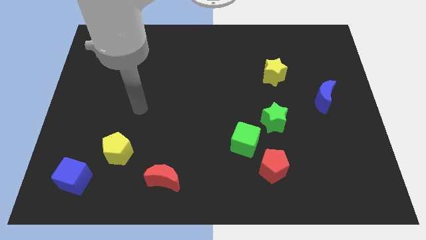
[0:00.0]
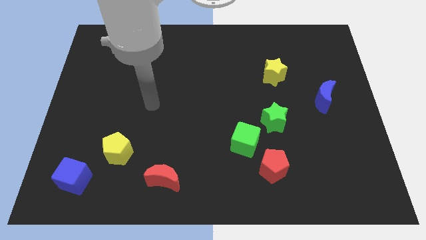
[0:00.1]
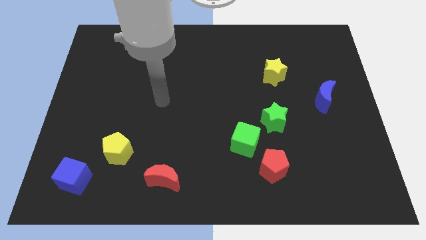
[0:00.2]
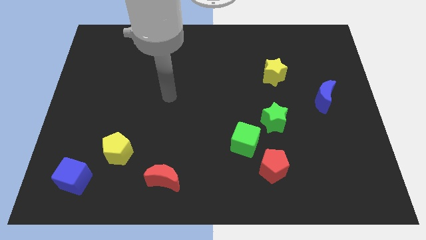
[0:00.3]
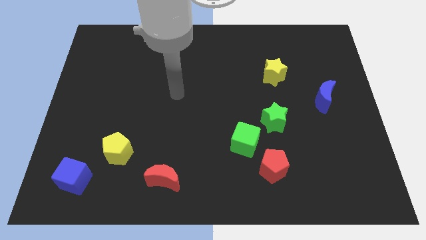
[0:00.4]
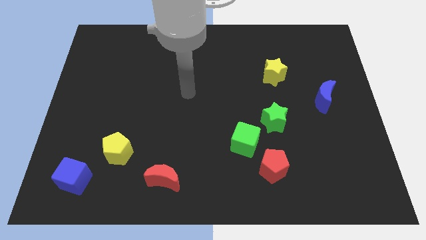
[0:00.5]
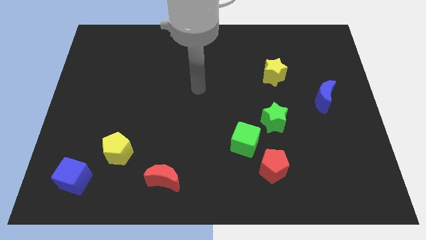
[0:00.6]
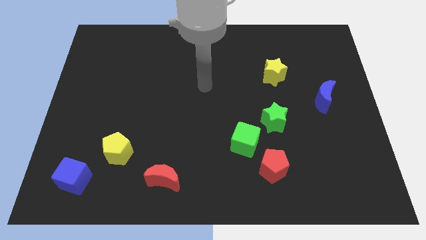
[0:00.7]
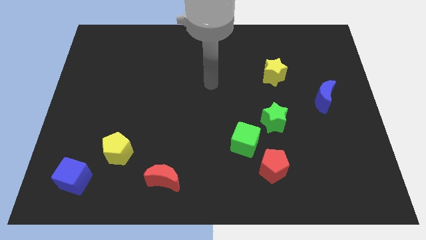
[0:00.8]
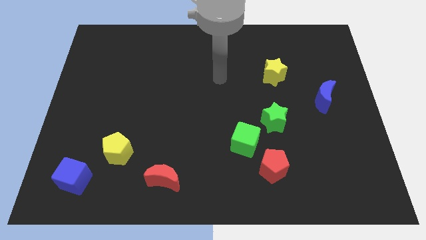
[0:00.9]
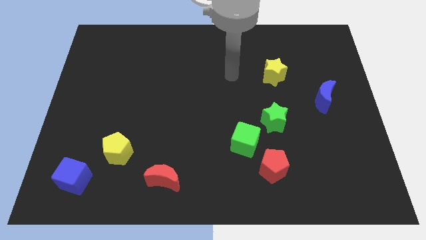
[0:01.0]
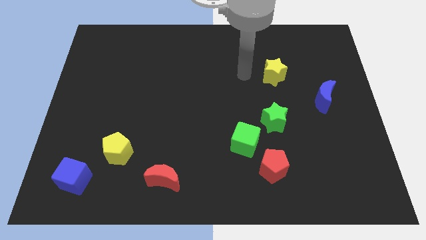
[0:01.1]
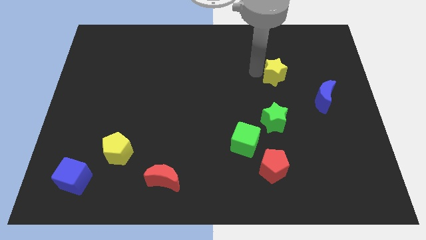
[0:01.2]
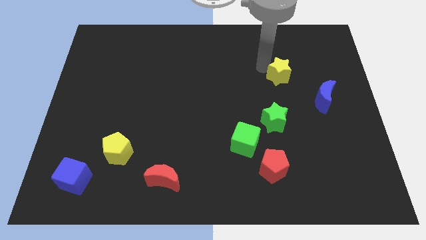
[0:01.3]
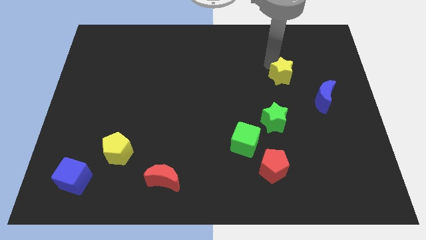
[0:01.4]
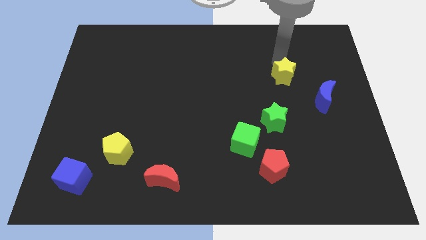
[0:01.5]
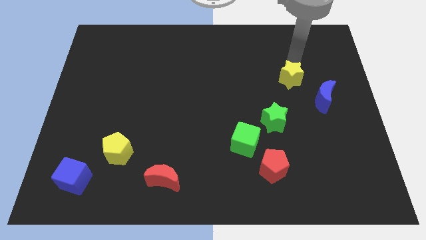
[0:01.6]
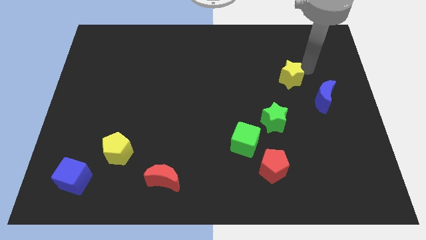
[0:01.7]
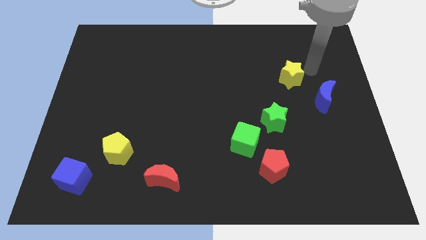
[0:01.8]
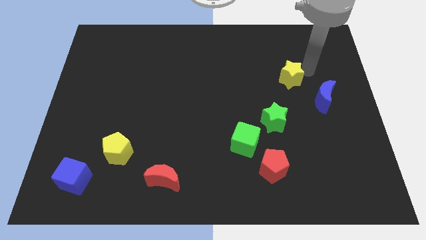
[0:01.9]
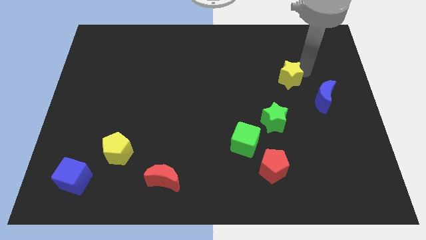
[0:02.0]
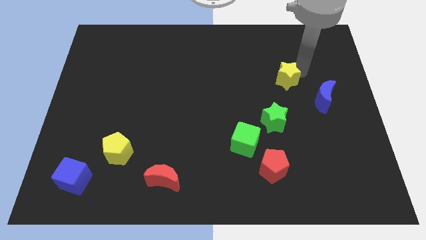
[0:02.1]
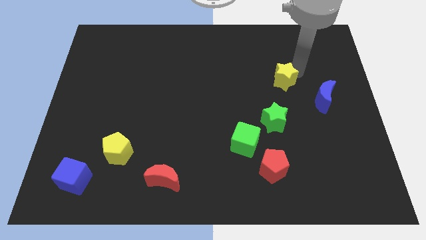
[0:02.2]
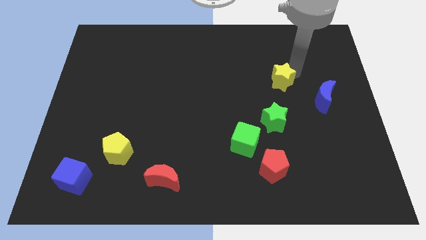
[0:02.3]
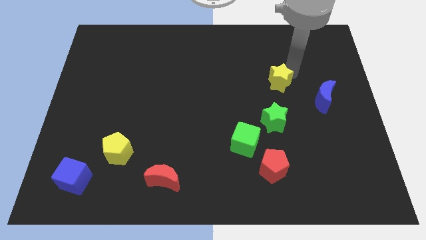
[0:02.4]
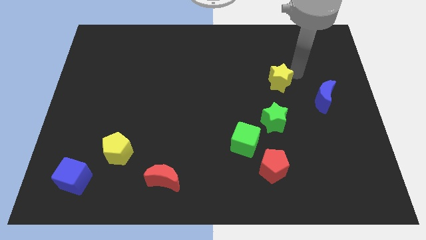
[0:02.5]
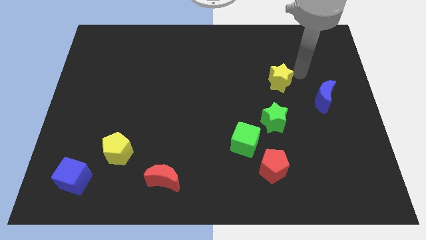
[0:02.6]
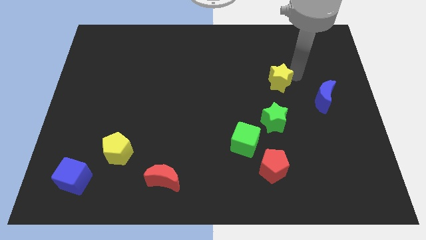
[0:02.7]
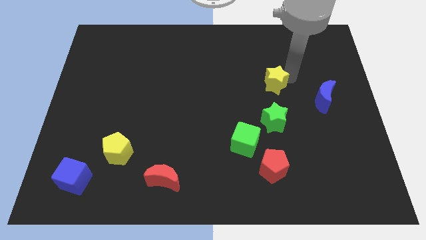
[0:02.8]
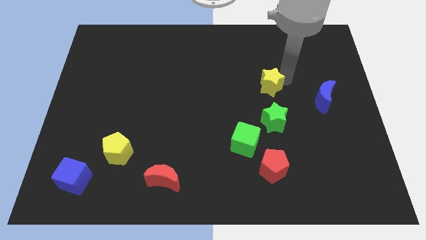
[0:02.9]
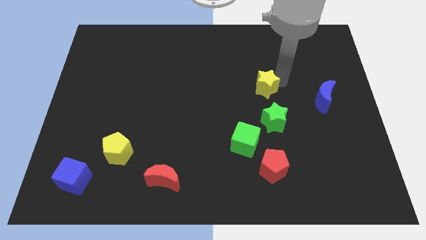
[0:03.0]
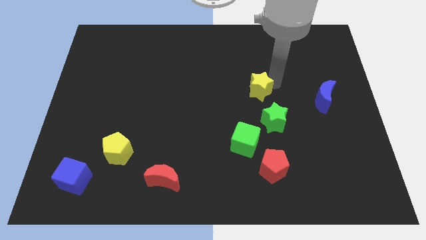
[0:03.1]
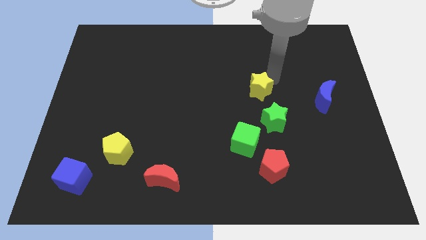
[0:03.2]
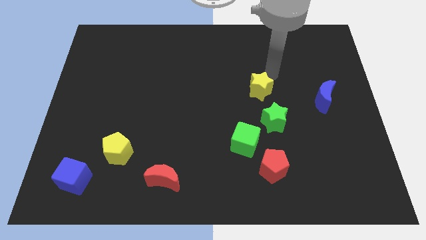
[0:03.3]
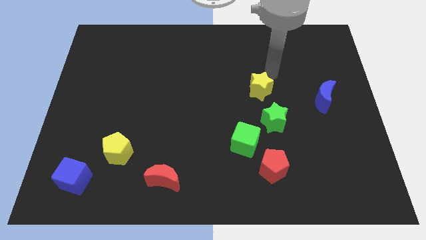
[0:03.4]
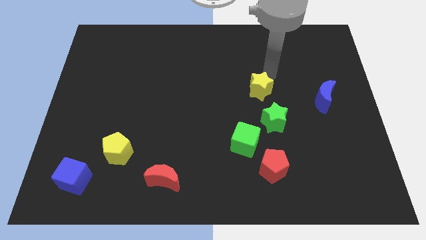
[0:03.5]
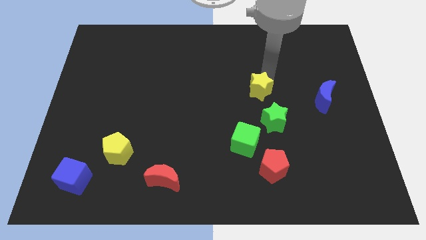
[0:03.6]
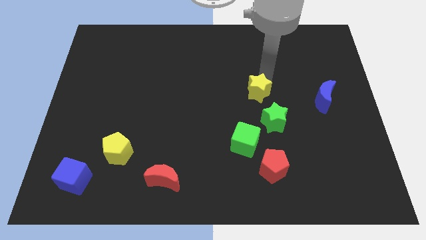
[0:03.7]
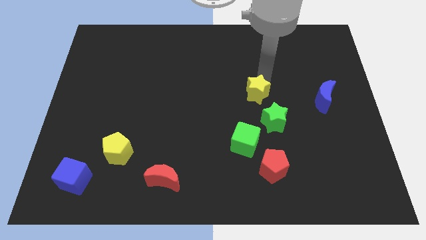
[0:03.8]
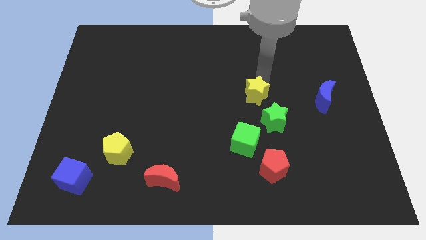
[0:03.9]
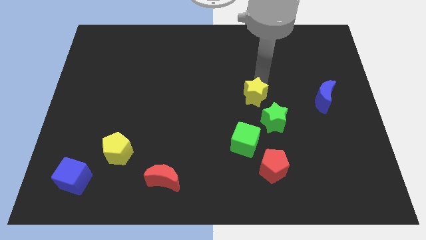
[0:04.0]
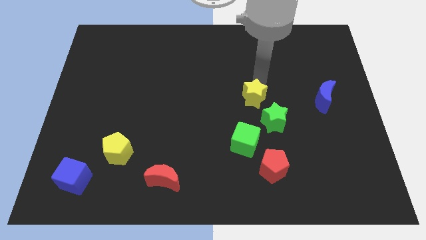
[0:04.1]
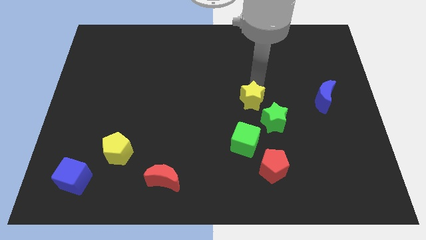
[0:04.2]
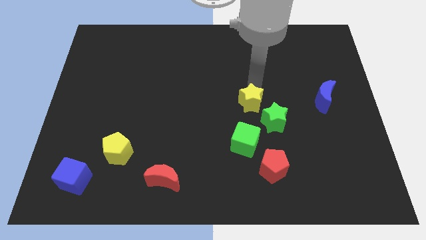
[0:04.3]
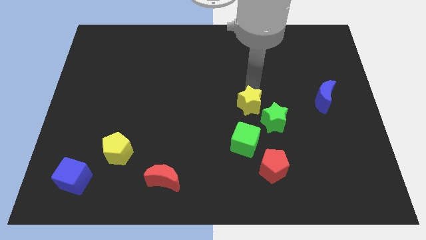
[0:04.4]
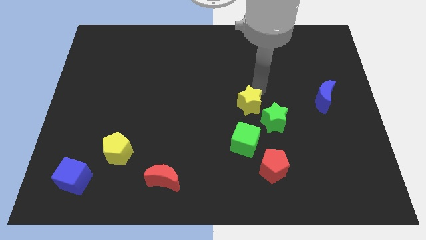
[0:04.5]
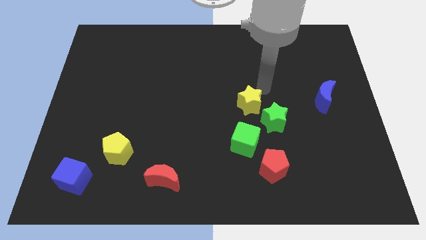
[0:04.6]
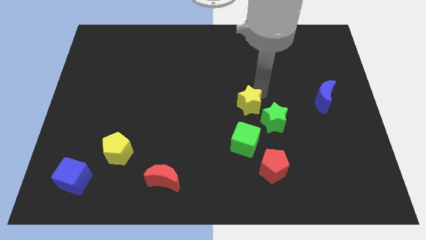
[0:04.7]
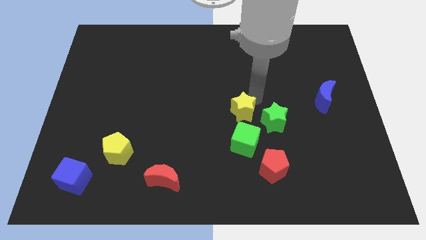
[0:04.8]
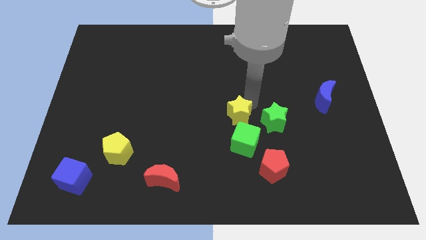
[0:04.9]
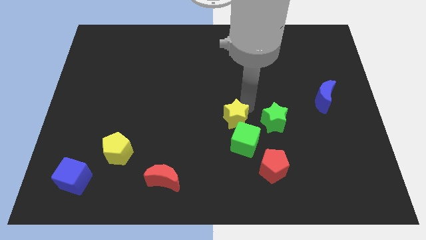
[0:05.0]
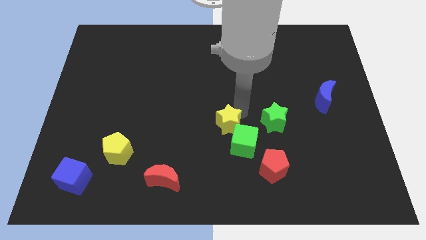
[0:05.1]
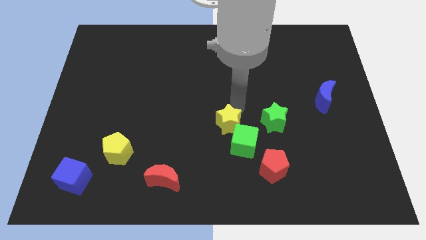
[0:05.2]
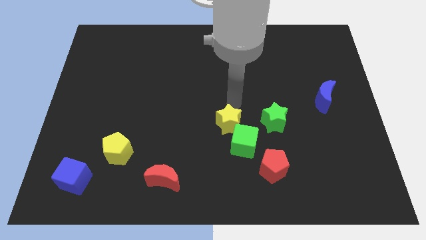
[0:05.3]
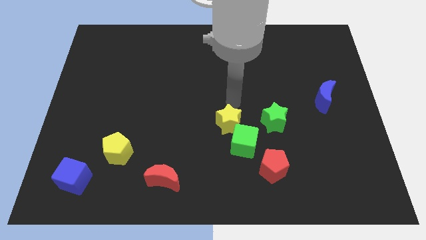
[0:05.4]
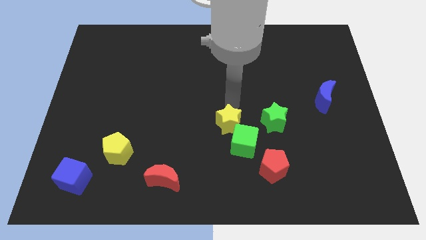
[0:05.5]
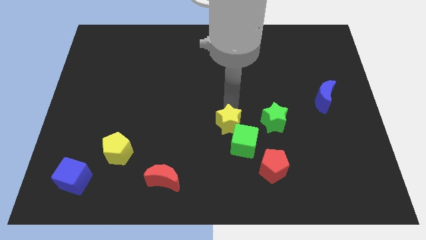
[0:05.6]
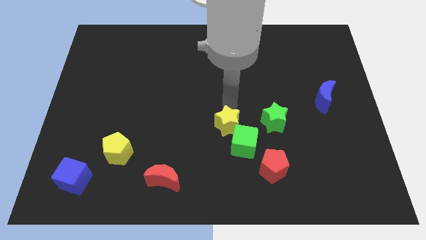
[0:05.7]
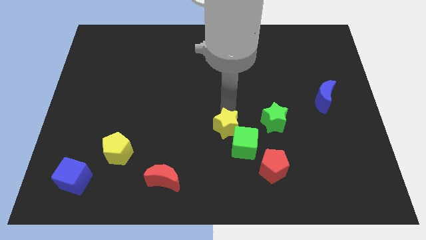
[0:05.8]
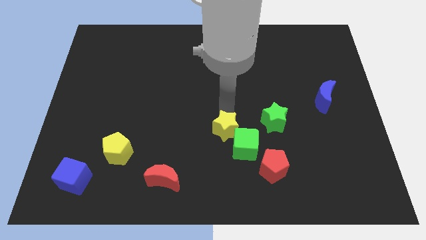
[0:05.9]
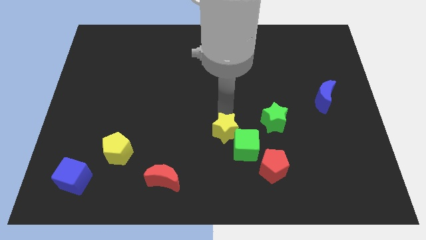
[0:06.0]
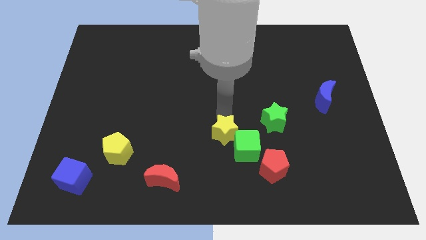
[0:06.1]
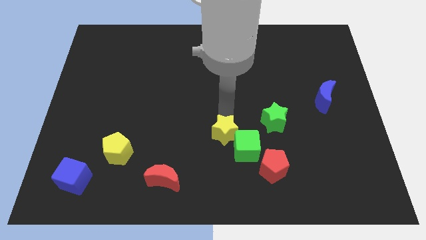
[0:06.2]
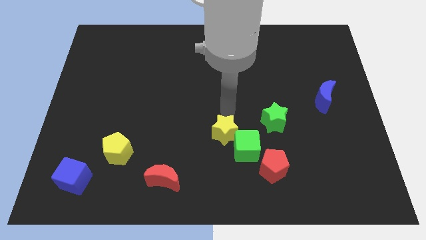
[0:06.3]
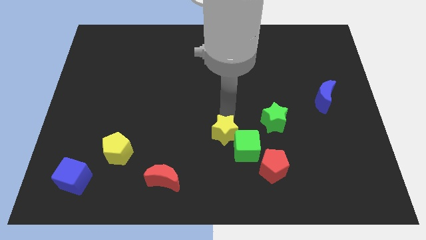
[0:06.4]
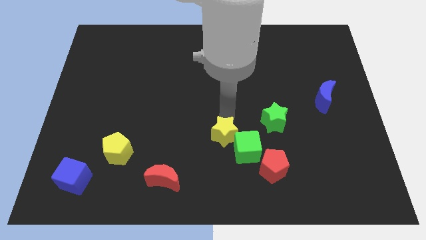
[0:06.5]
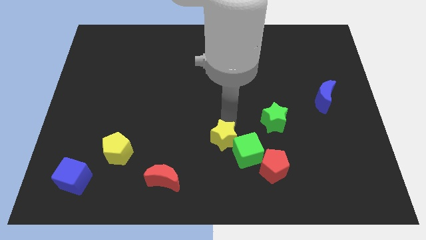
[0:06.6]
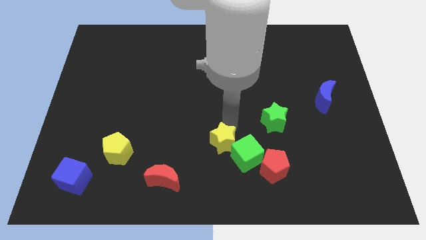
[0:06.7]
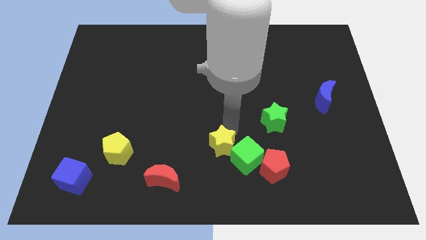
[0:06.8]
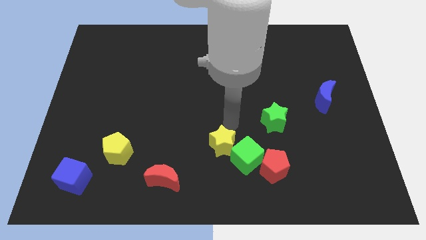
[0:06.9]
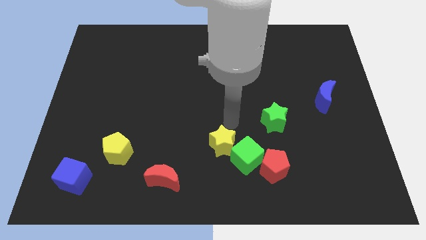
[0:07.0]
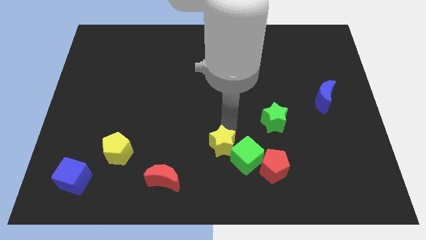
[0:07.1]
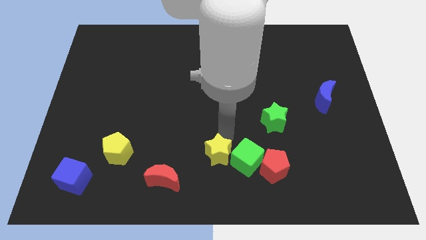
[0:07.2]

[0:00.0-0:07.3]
push the yellow star to the bottom side
